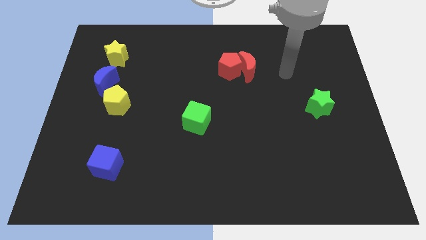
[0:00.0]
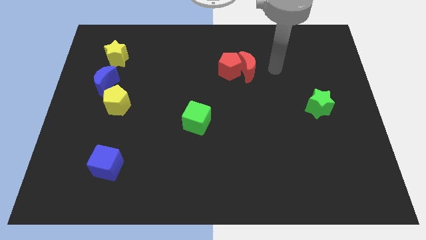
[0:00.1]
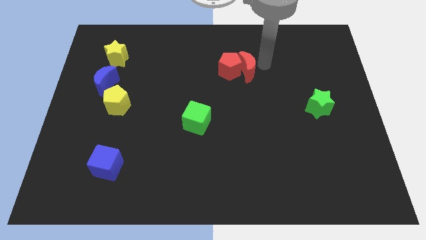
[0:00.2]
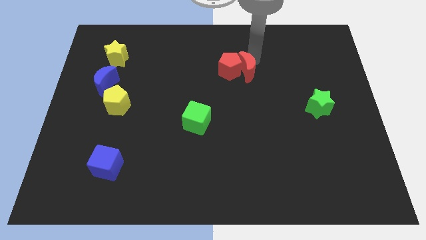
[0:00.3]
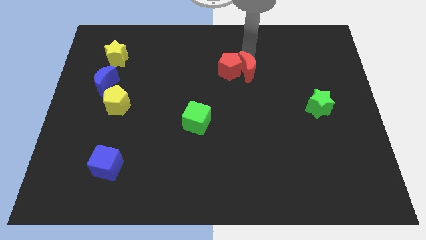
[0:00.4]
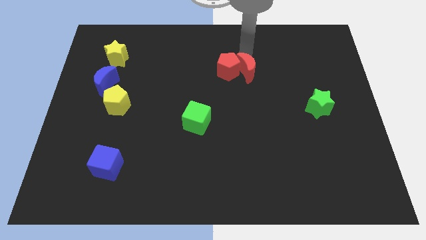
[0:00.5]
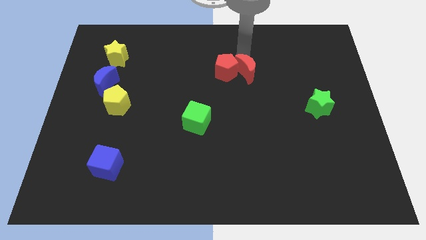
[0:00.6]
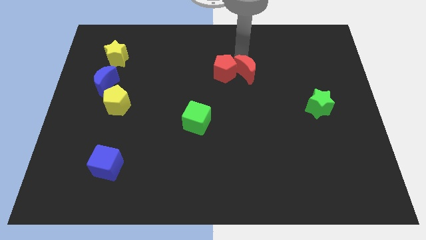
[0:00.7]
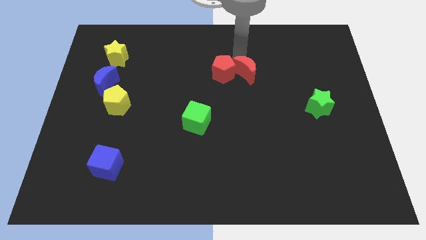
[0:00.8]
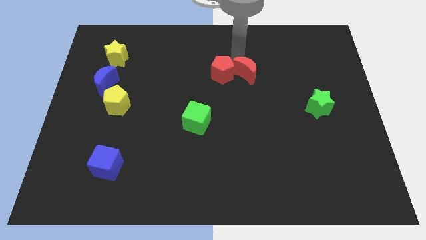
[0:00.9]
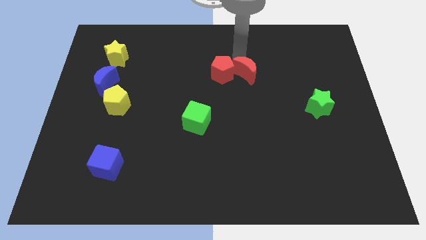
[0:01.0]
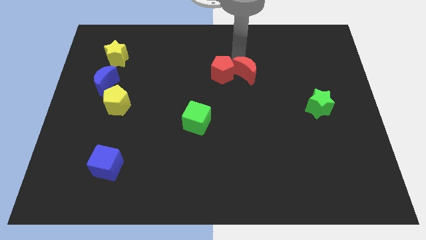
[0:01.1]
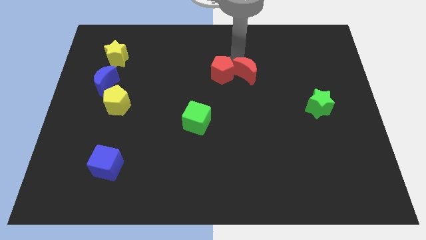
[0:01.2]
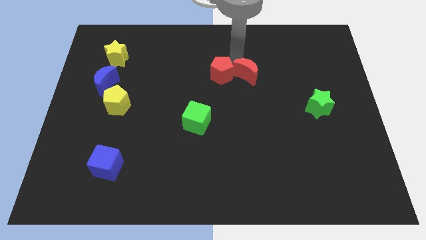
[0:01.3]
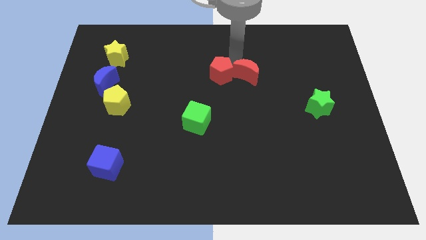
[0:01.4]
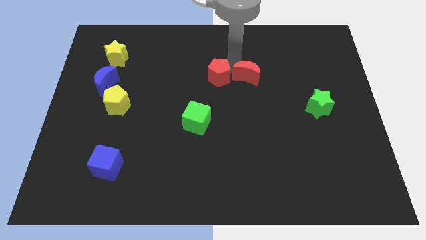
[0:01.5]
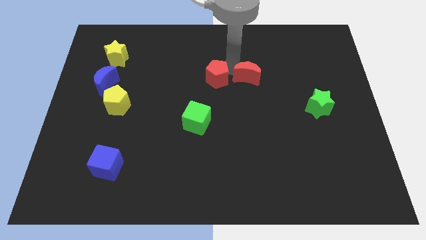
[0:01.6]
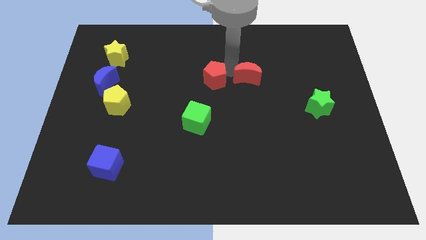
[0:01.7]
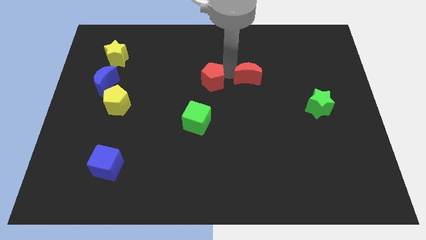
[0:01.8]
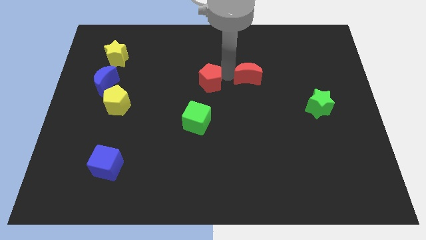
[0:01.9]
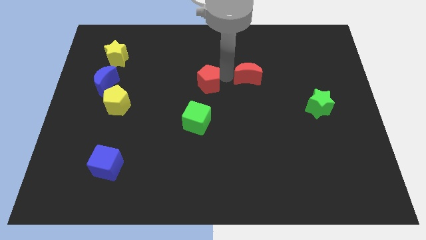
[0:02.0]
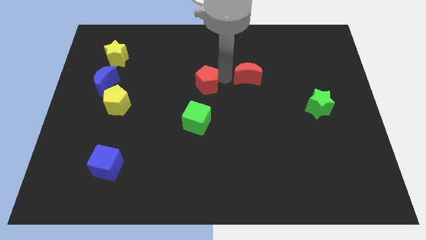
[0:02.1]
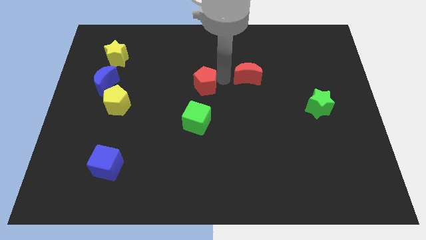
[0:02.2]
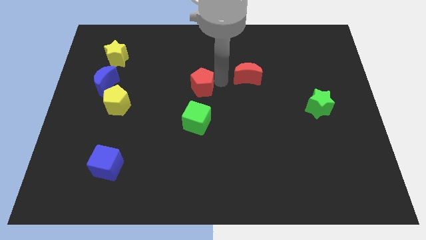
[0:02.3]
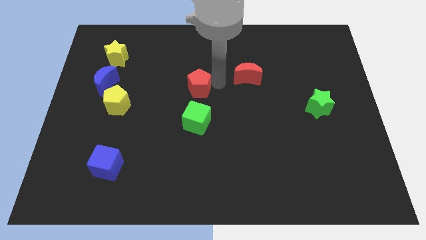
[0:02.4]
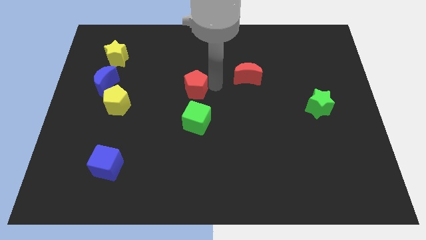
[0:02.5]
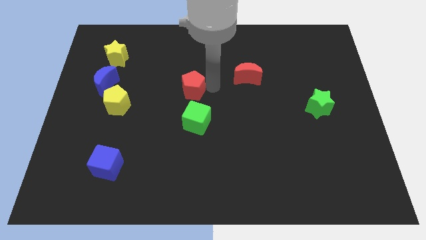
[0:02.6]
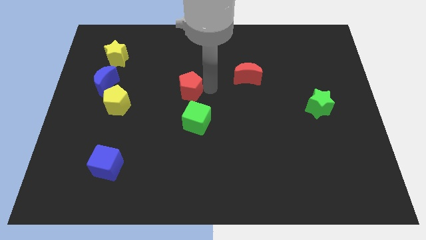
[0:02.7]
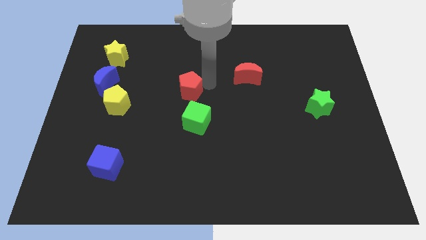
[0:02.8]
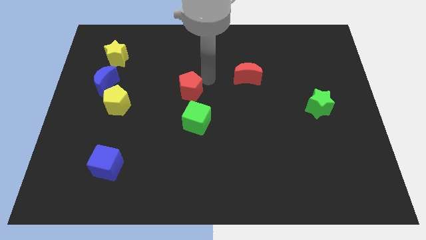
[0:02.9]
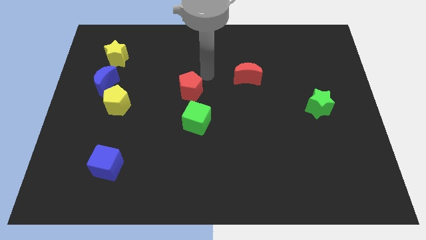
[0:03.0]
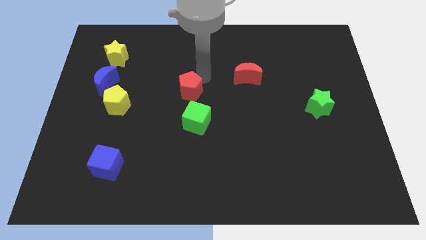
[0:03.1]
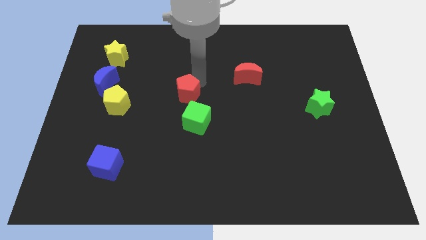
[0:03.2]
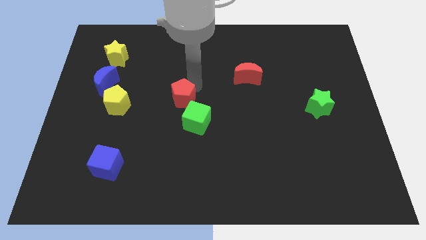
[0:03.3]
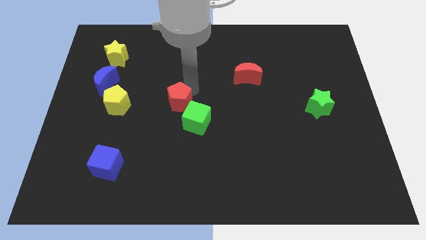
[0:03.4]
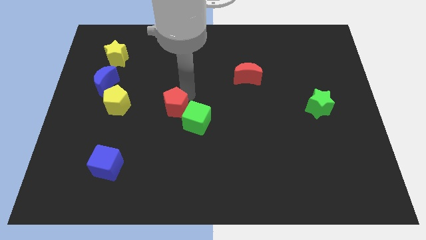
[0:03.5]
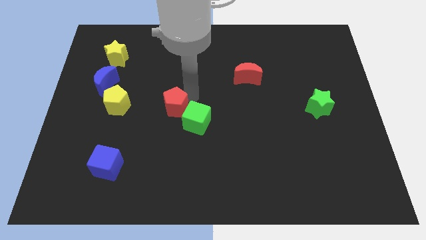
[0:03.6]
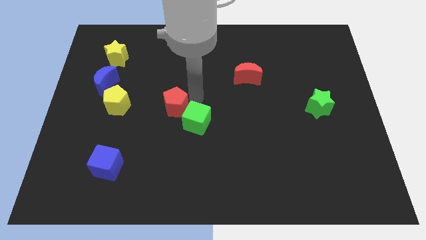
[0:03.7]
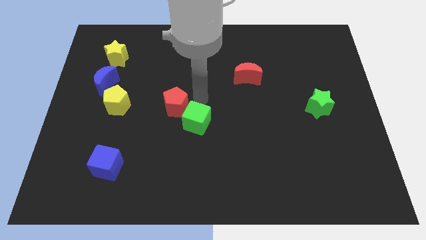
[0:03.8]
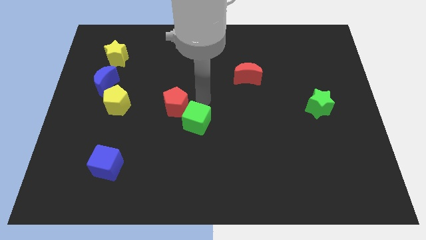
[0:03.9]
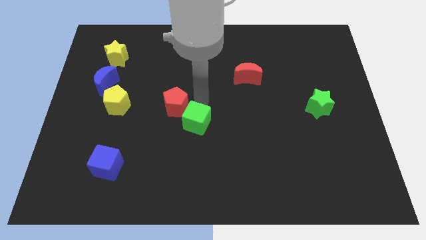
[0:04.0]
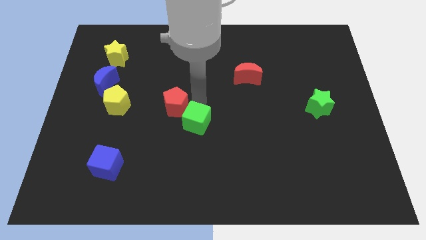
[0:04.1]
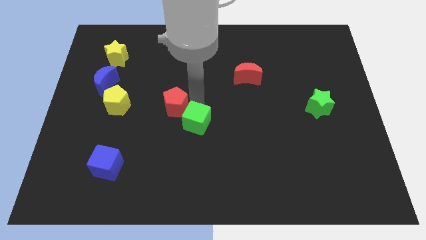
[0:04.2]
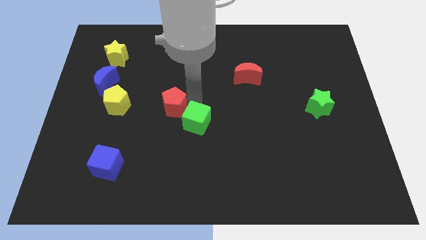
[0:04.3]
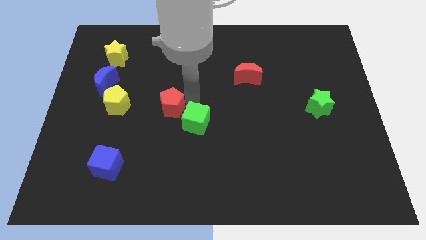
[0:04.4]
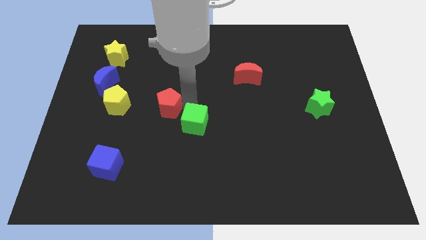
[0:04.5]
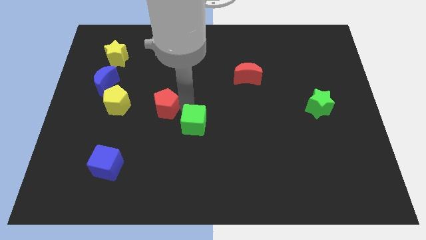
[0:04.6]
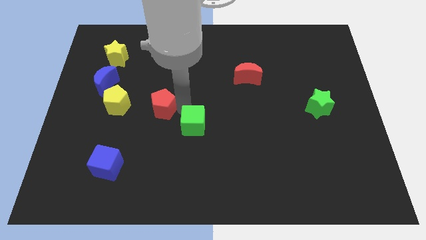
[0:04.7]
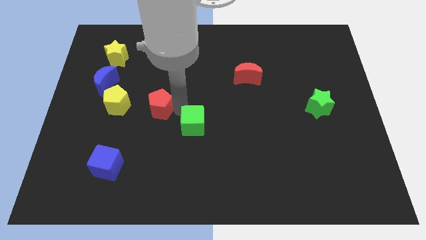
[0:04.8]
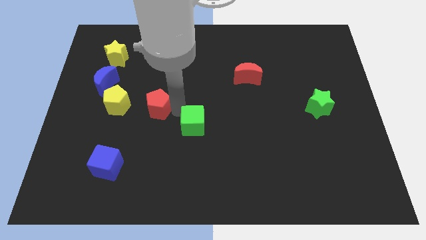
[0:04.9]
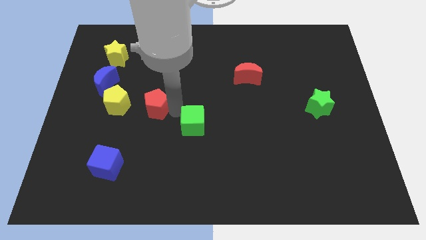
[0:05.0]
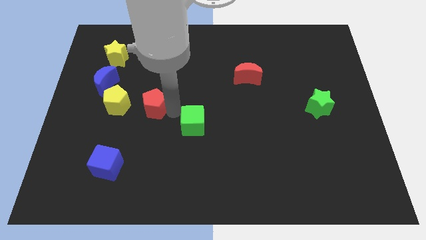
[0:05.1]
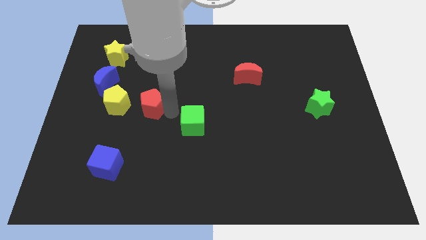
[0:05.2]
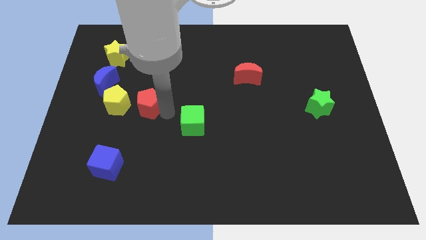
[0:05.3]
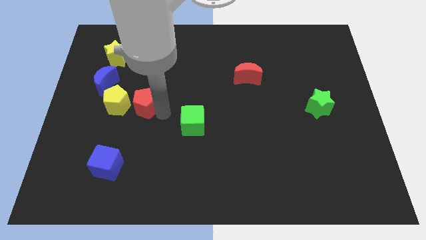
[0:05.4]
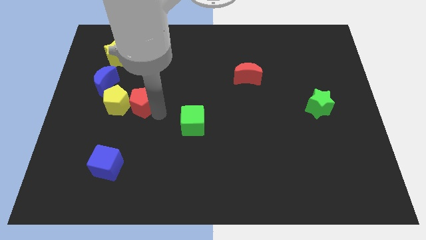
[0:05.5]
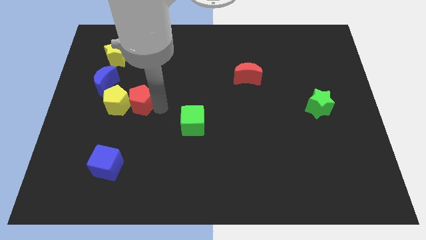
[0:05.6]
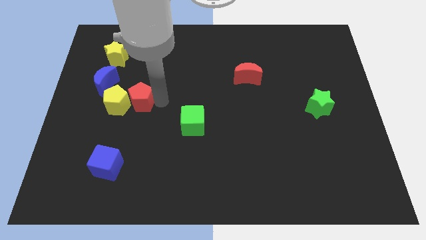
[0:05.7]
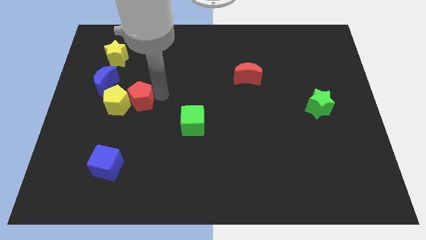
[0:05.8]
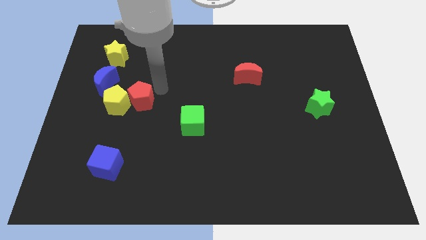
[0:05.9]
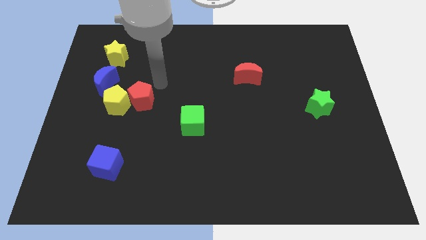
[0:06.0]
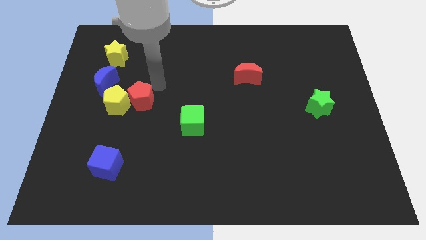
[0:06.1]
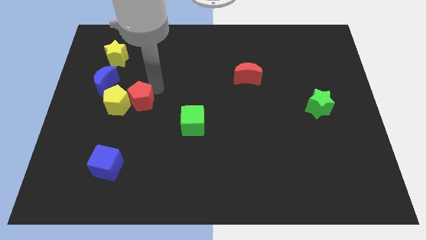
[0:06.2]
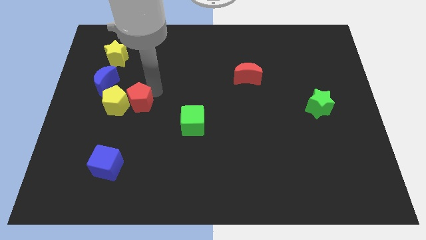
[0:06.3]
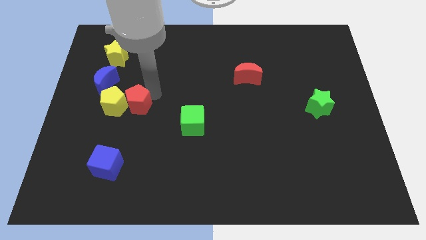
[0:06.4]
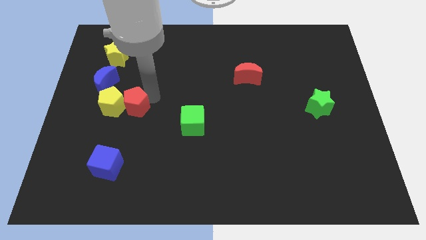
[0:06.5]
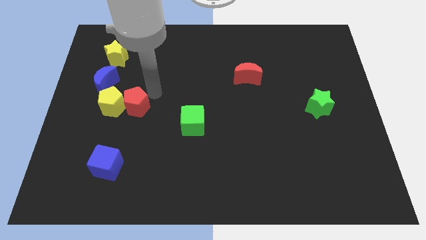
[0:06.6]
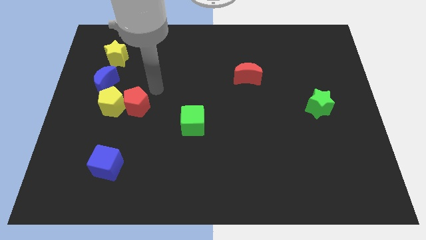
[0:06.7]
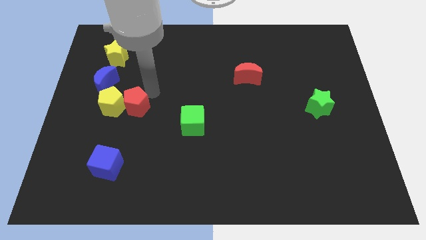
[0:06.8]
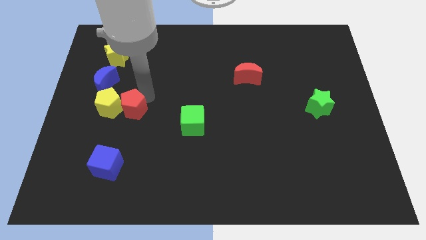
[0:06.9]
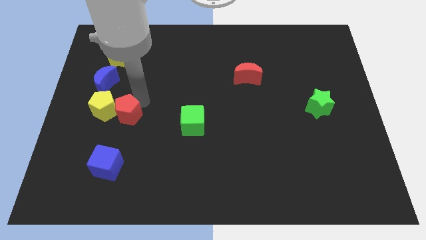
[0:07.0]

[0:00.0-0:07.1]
move the red pentagon above the blue cube
